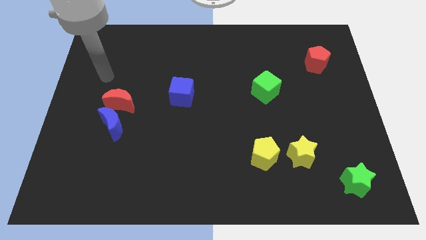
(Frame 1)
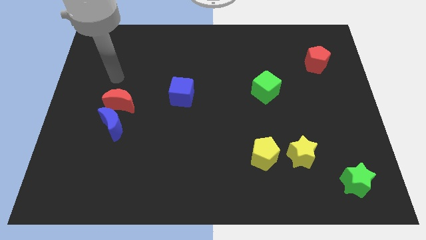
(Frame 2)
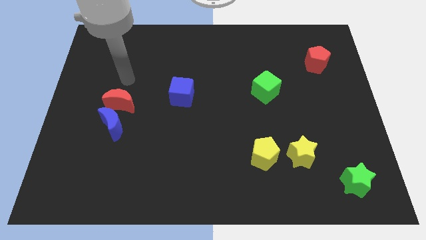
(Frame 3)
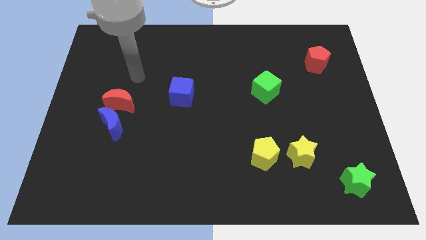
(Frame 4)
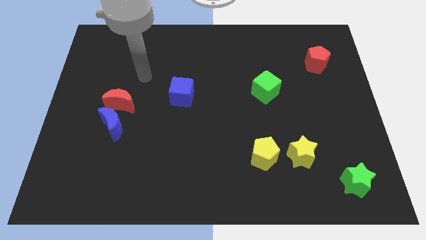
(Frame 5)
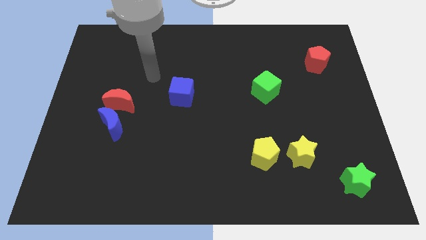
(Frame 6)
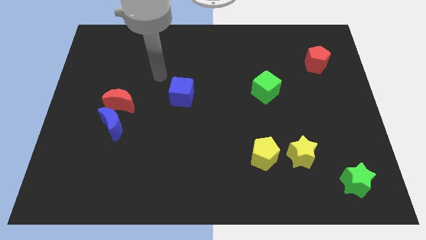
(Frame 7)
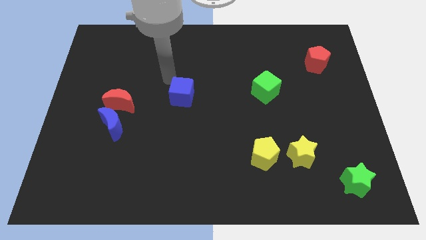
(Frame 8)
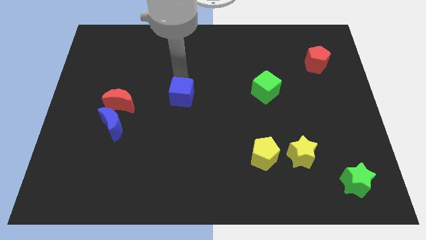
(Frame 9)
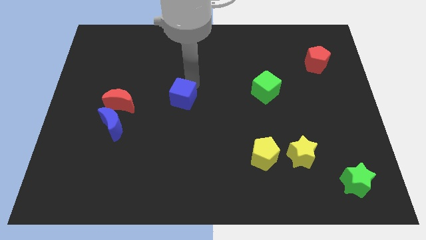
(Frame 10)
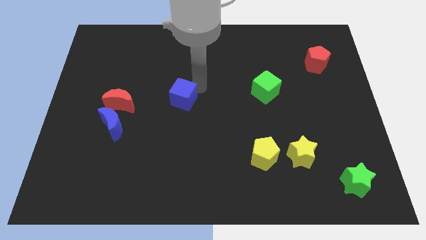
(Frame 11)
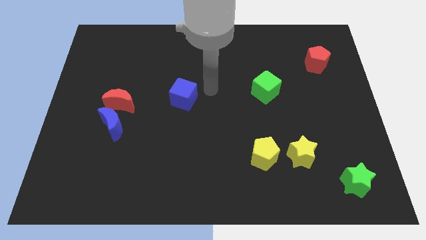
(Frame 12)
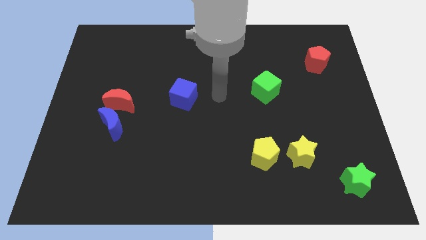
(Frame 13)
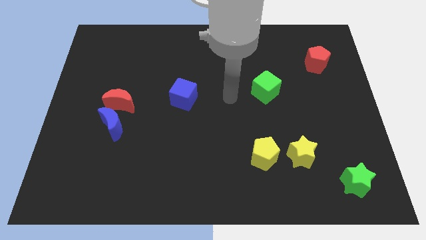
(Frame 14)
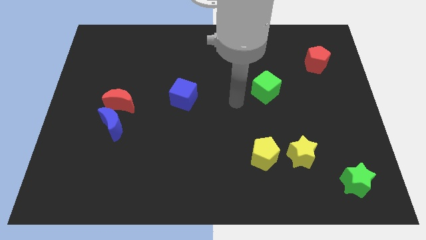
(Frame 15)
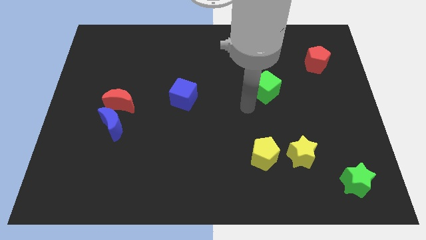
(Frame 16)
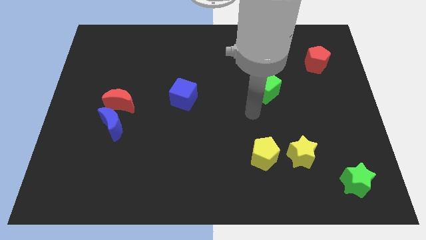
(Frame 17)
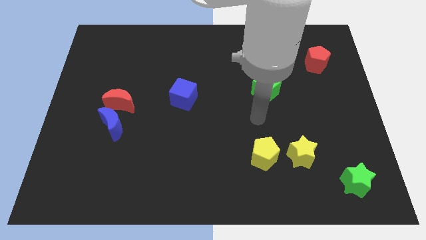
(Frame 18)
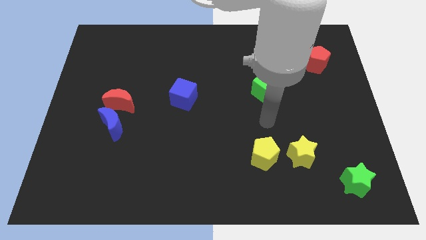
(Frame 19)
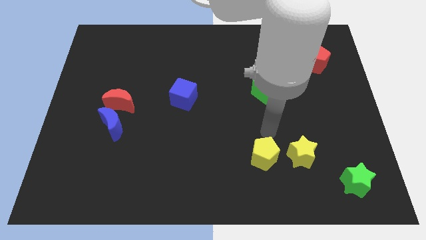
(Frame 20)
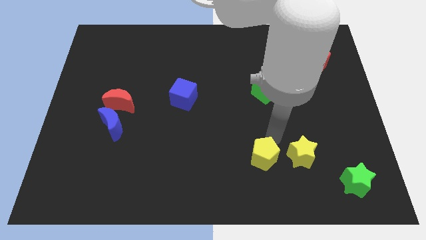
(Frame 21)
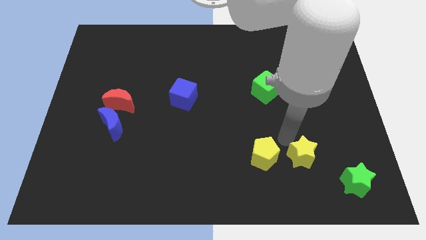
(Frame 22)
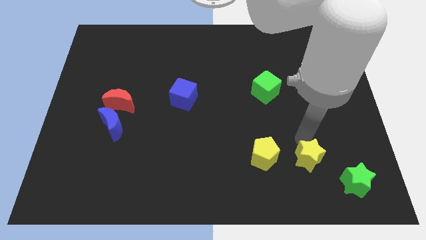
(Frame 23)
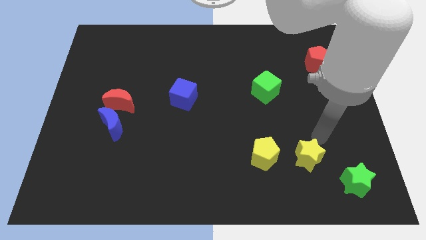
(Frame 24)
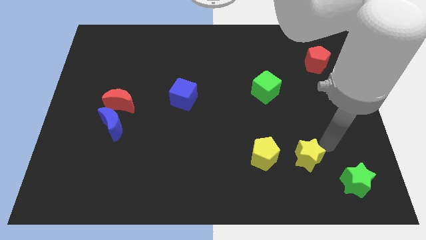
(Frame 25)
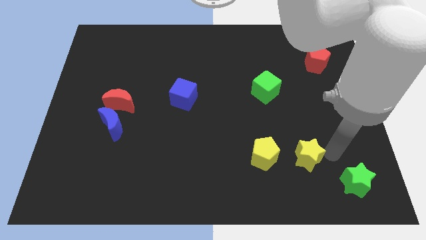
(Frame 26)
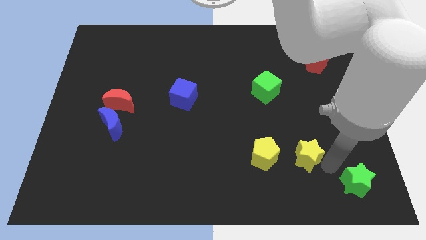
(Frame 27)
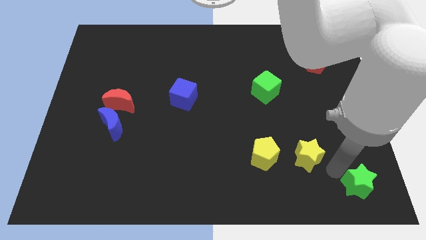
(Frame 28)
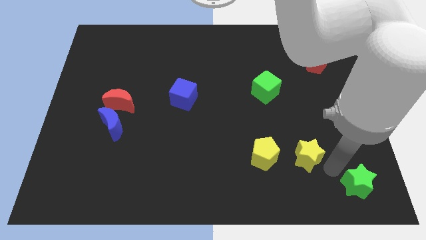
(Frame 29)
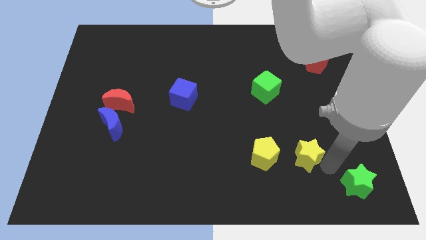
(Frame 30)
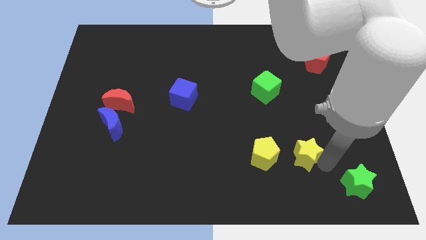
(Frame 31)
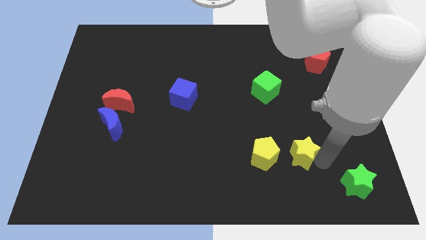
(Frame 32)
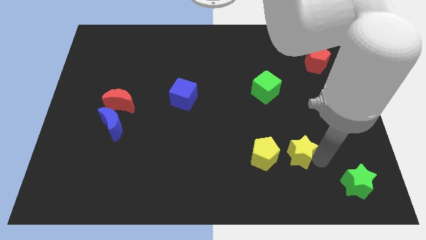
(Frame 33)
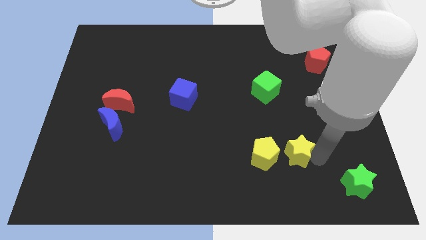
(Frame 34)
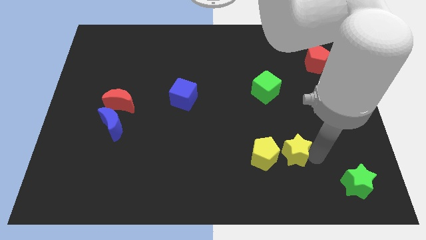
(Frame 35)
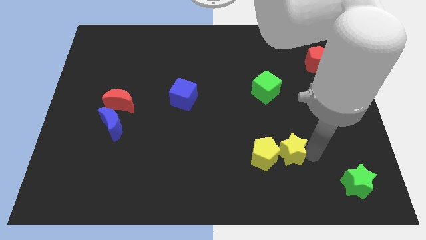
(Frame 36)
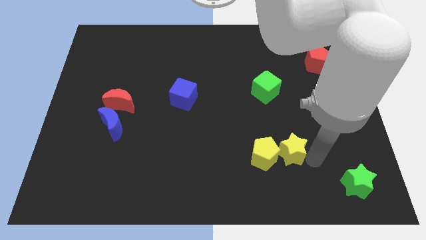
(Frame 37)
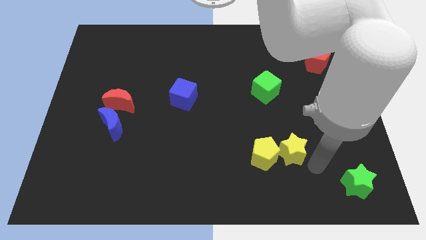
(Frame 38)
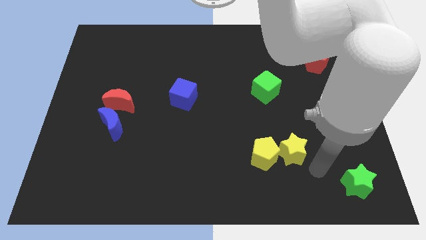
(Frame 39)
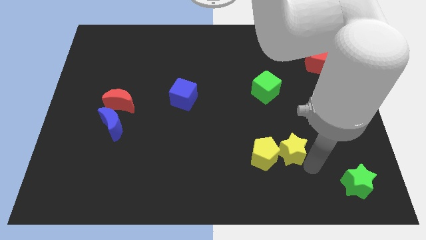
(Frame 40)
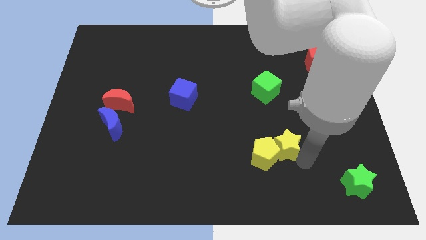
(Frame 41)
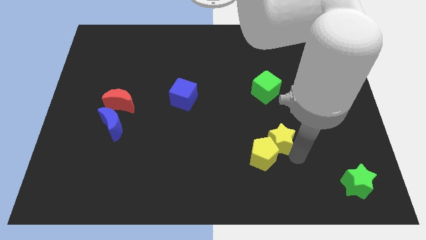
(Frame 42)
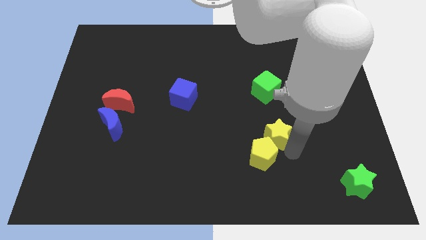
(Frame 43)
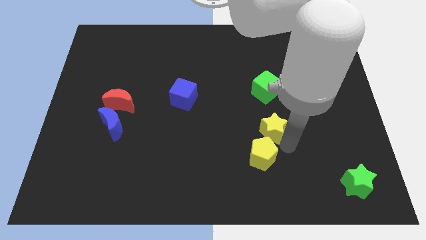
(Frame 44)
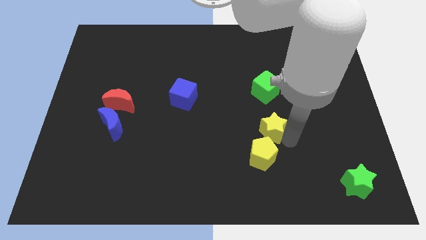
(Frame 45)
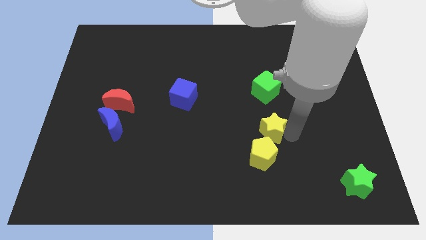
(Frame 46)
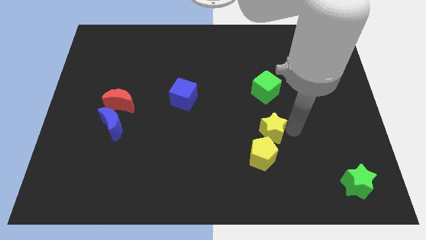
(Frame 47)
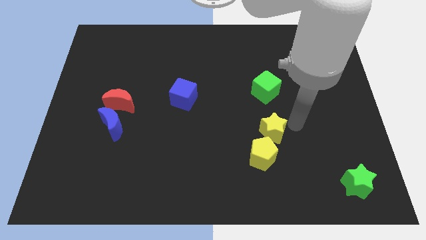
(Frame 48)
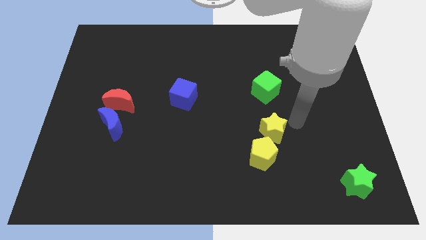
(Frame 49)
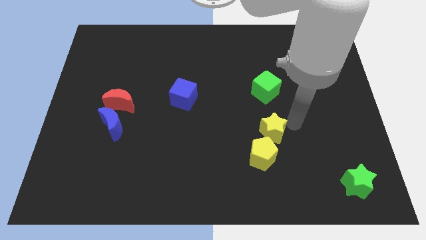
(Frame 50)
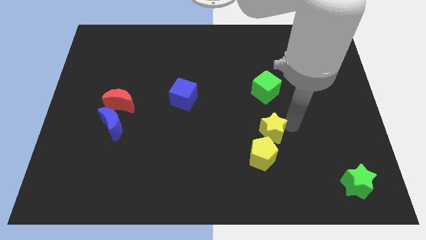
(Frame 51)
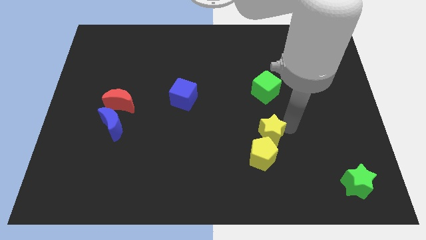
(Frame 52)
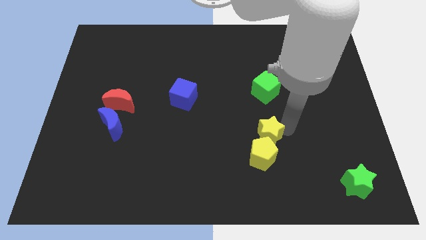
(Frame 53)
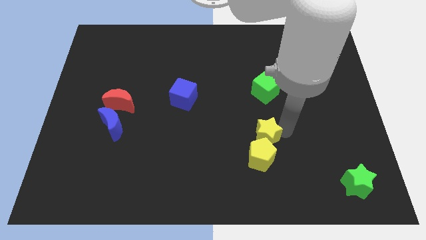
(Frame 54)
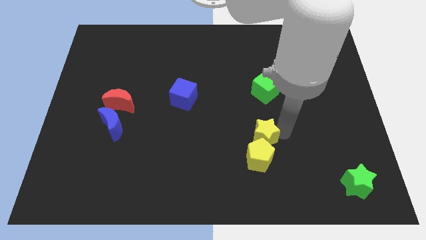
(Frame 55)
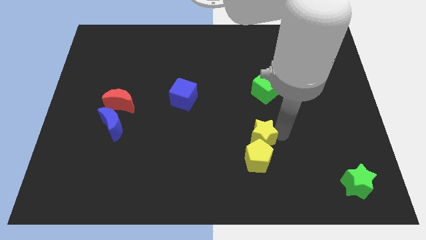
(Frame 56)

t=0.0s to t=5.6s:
slightly slide the yellow star left

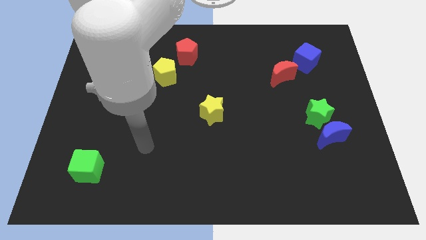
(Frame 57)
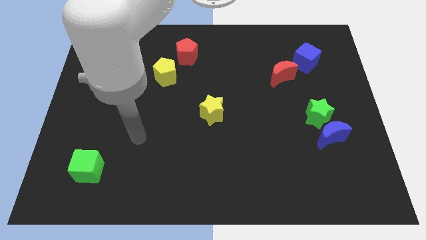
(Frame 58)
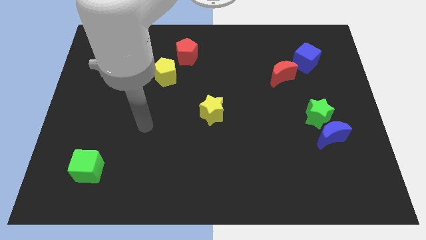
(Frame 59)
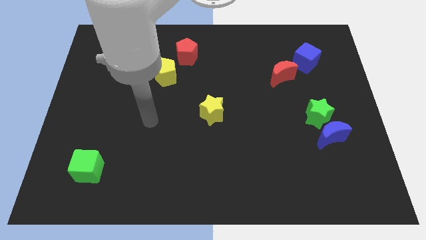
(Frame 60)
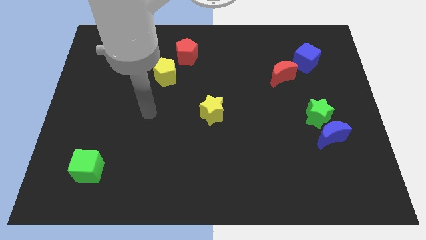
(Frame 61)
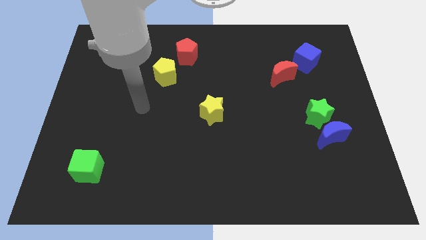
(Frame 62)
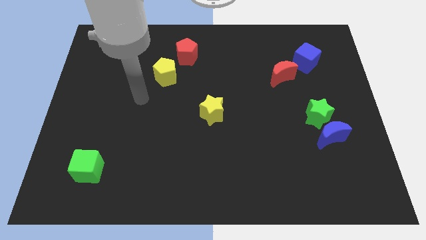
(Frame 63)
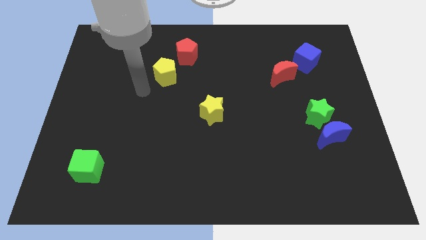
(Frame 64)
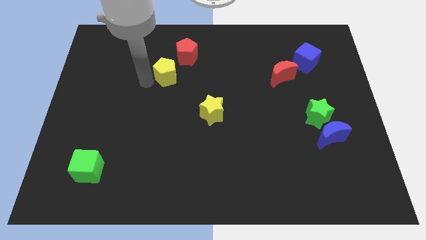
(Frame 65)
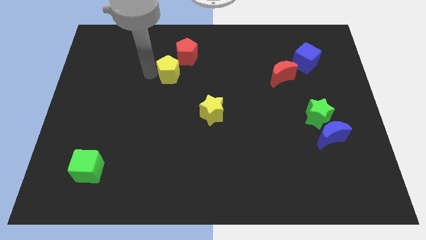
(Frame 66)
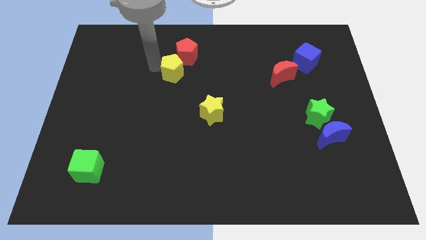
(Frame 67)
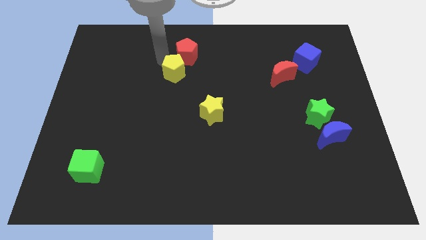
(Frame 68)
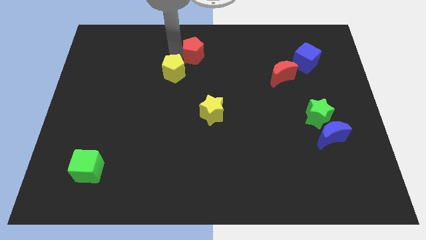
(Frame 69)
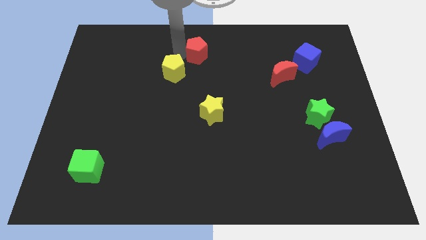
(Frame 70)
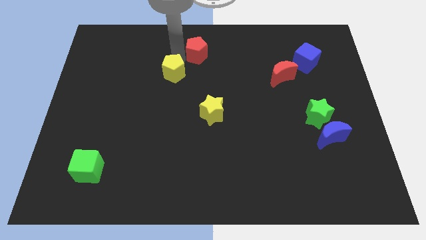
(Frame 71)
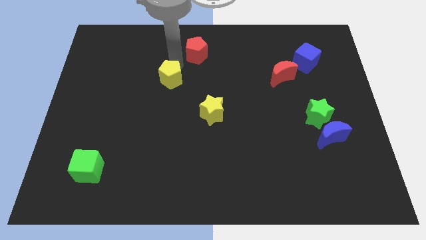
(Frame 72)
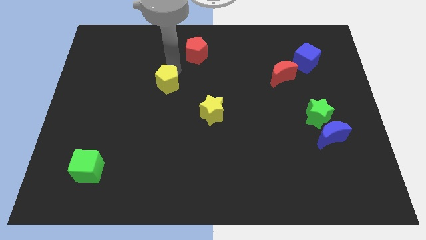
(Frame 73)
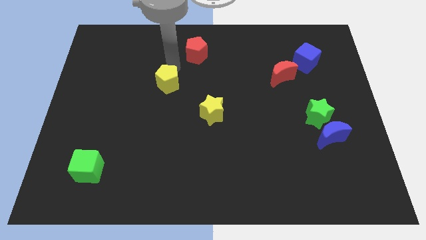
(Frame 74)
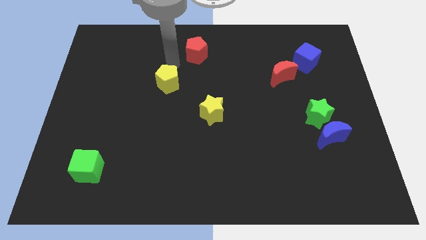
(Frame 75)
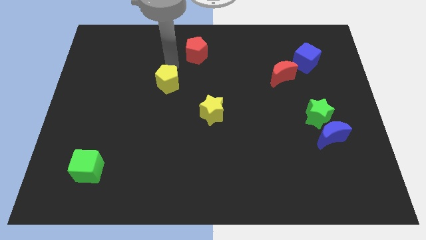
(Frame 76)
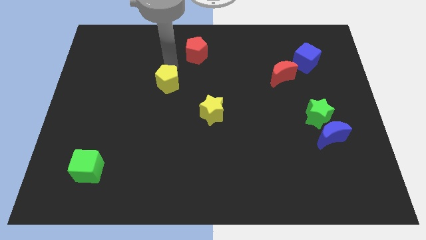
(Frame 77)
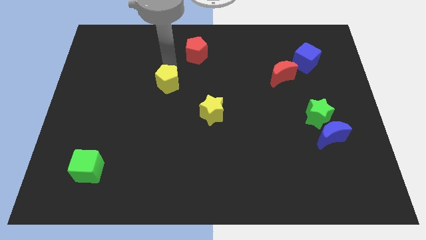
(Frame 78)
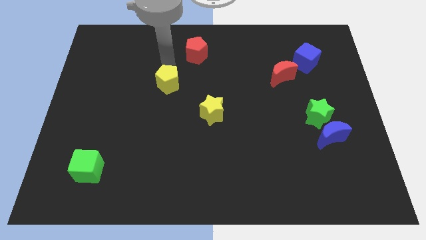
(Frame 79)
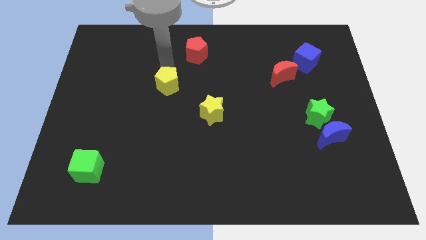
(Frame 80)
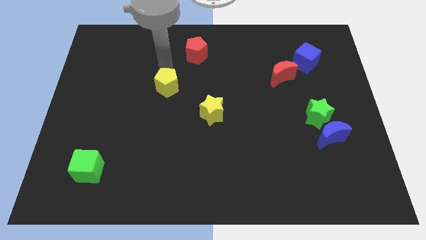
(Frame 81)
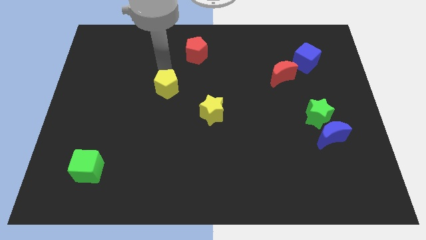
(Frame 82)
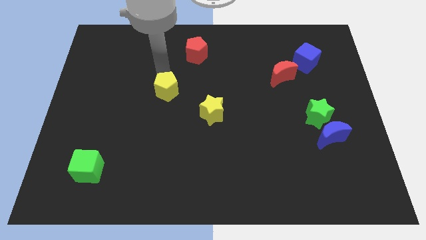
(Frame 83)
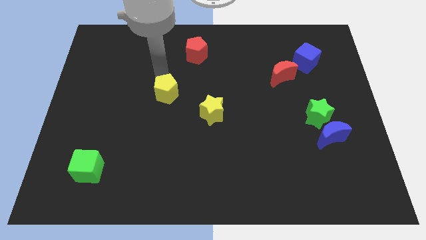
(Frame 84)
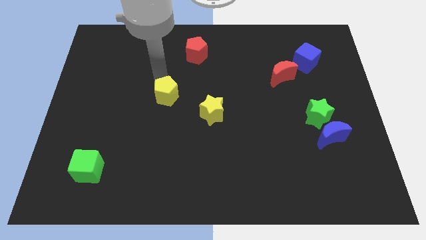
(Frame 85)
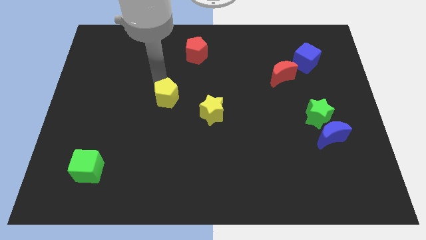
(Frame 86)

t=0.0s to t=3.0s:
slightly move the yellow pentagon down
